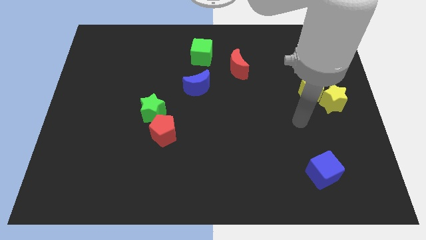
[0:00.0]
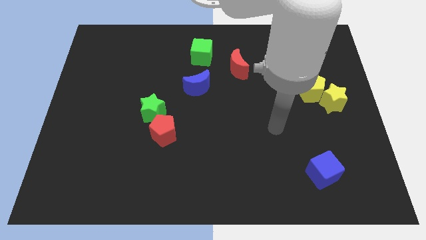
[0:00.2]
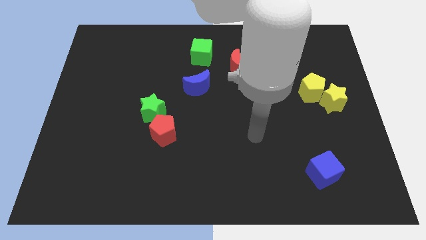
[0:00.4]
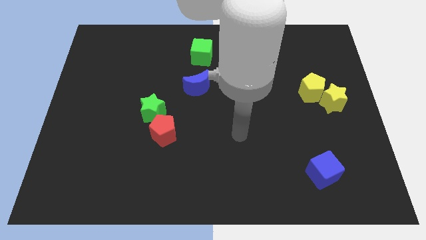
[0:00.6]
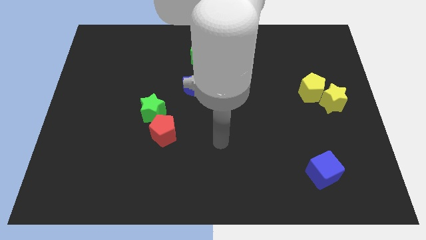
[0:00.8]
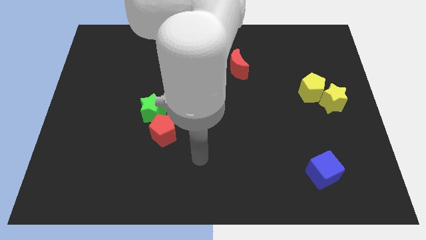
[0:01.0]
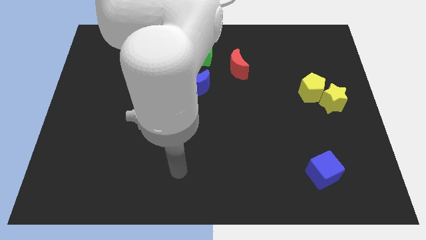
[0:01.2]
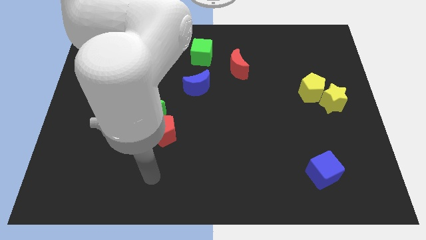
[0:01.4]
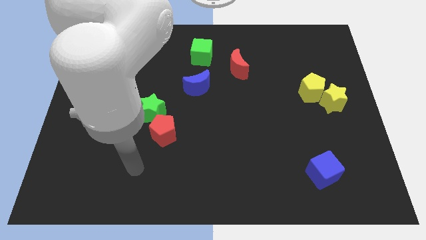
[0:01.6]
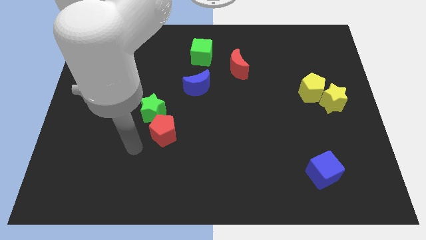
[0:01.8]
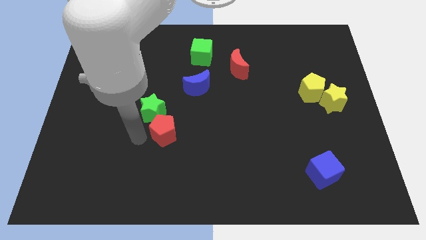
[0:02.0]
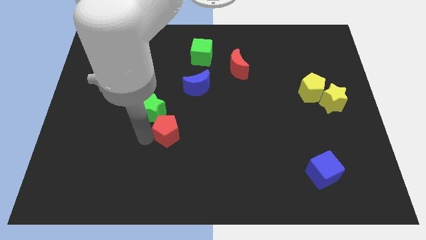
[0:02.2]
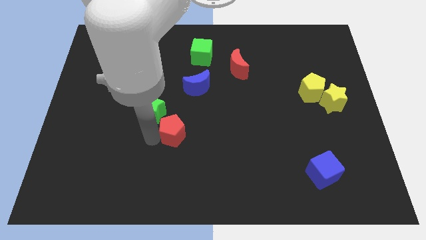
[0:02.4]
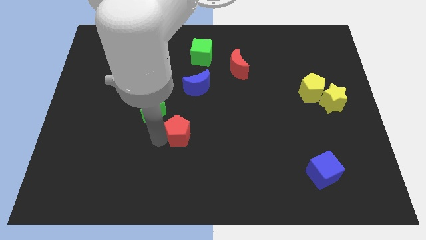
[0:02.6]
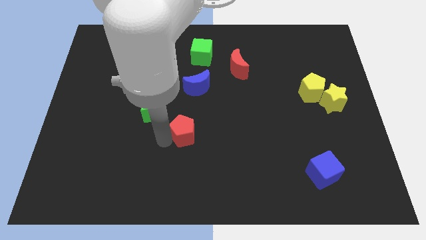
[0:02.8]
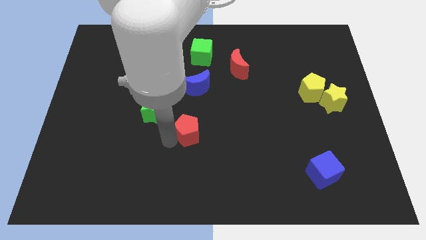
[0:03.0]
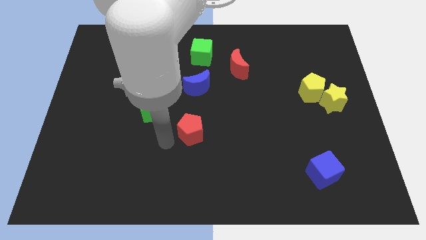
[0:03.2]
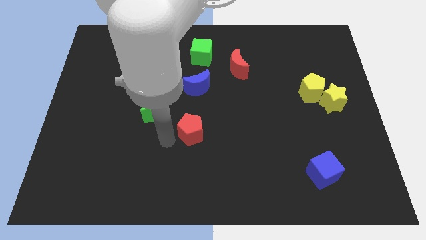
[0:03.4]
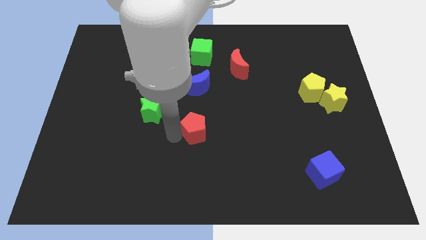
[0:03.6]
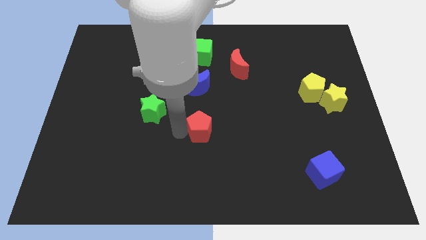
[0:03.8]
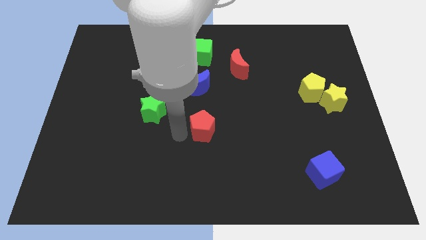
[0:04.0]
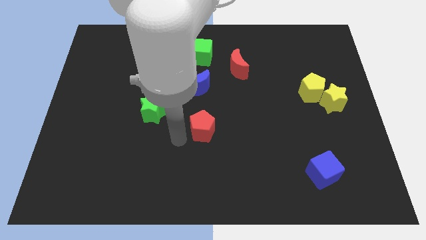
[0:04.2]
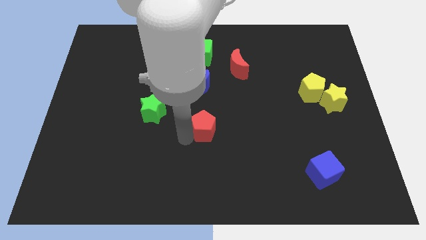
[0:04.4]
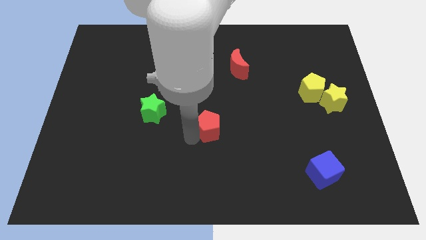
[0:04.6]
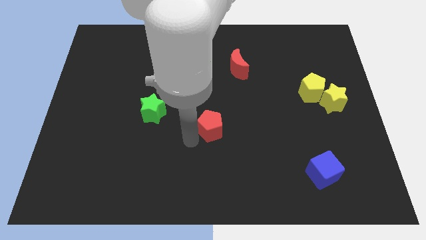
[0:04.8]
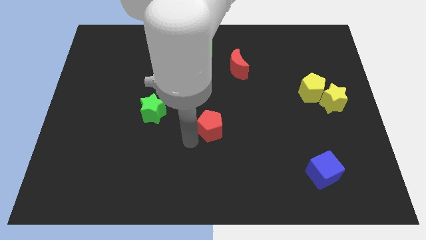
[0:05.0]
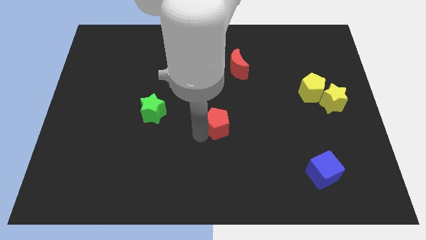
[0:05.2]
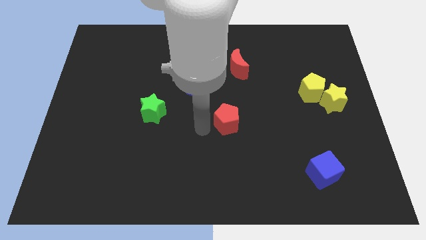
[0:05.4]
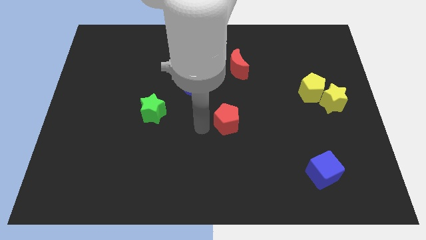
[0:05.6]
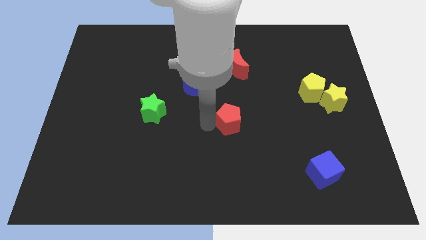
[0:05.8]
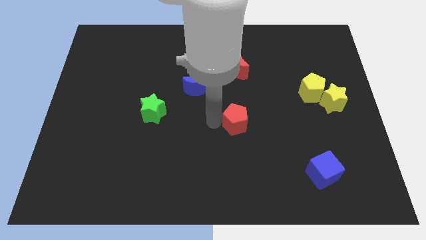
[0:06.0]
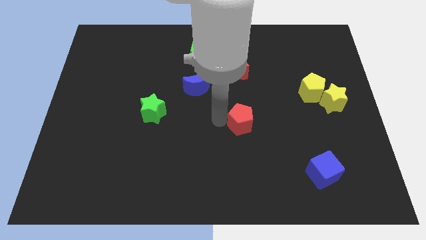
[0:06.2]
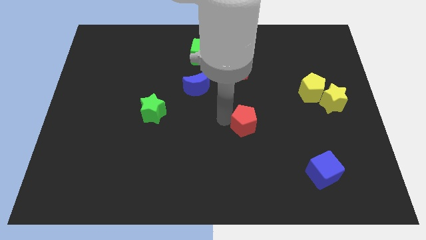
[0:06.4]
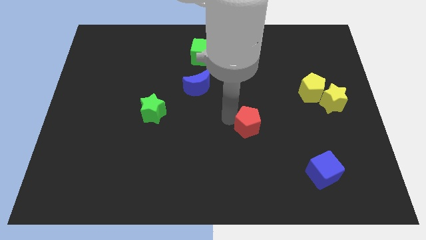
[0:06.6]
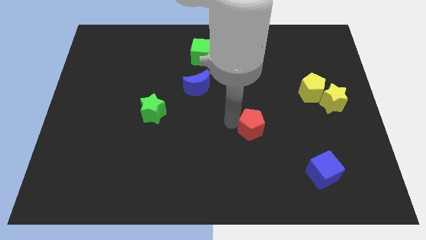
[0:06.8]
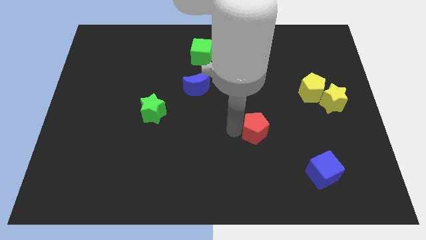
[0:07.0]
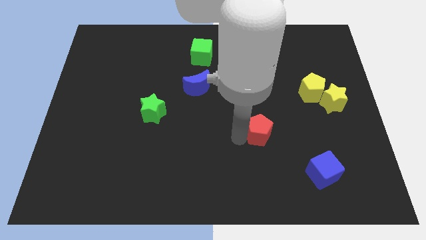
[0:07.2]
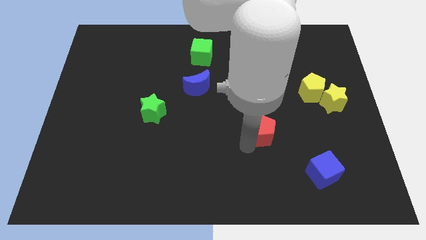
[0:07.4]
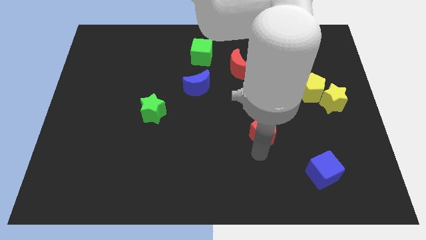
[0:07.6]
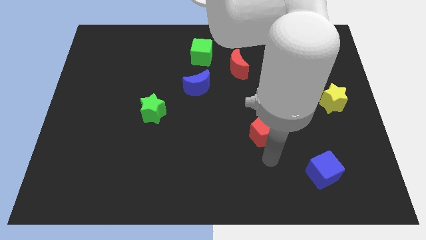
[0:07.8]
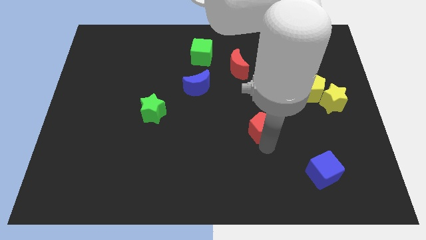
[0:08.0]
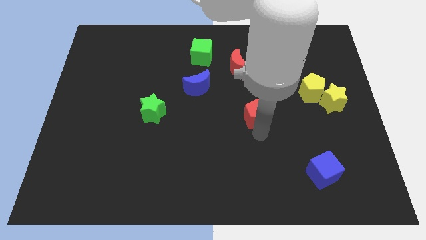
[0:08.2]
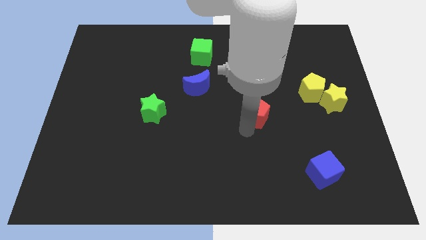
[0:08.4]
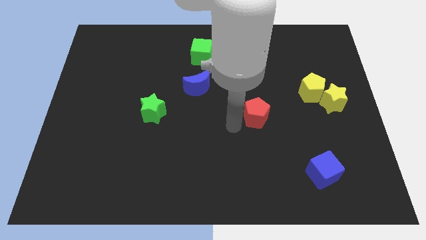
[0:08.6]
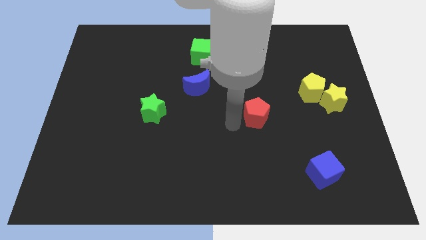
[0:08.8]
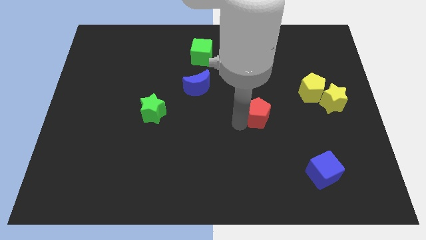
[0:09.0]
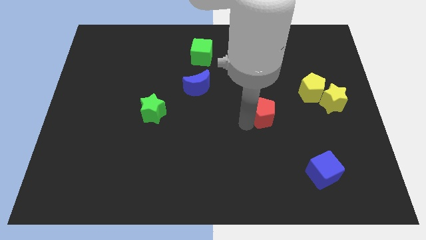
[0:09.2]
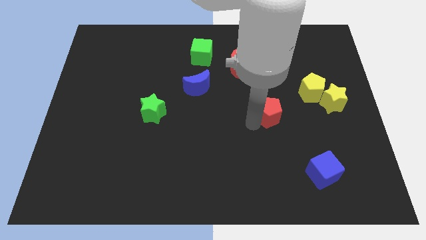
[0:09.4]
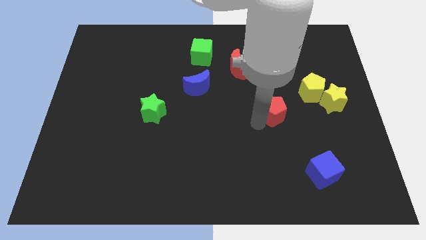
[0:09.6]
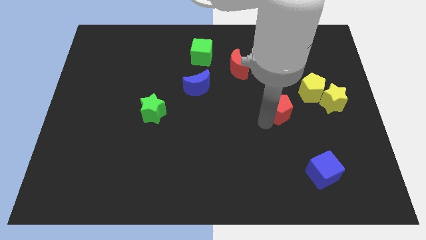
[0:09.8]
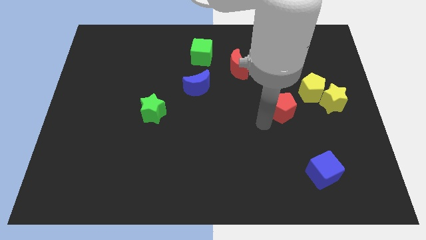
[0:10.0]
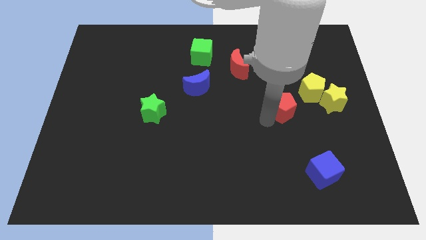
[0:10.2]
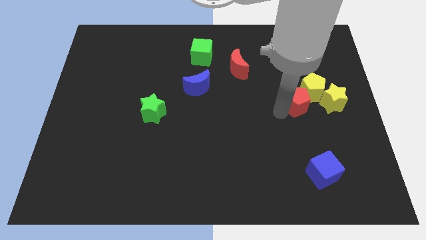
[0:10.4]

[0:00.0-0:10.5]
move the red pentagon towards the yellow pentagon

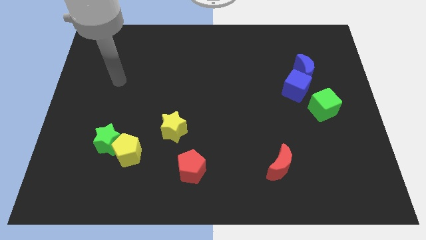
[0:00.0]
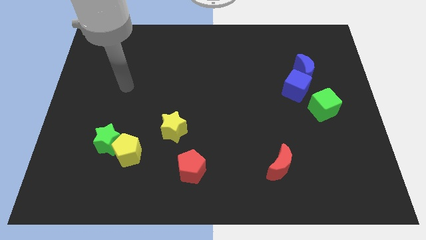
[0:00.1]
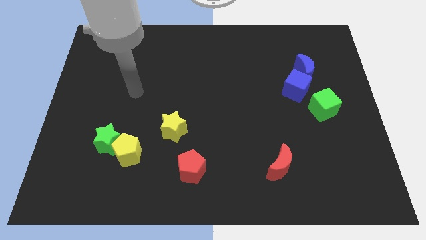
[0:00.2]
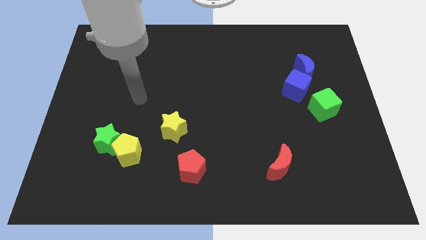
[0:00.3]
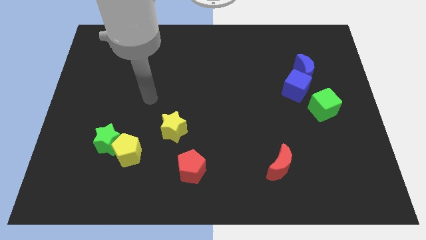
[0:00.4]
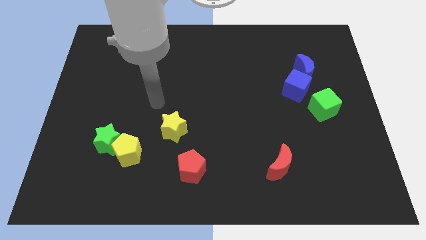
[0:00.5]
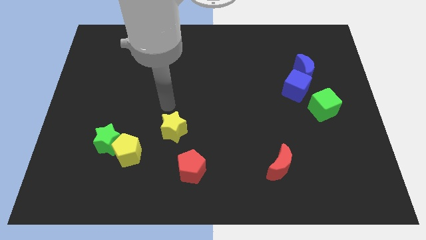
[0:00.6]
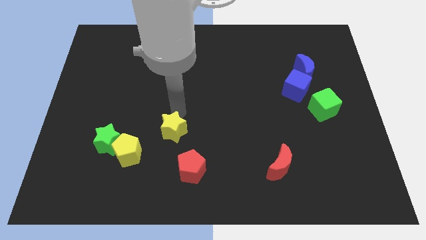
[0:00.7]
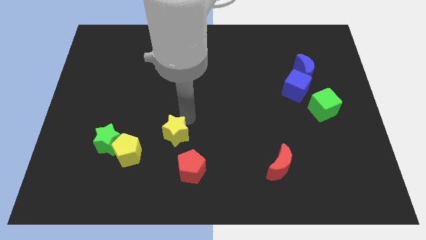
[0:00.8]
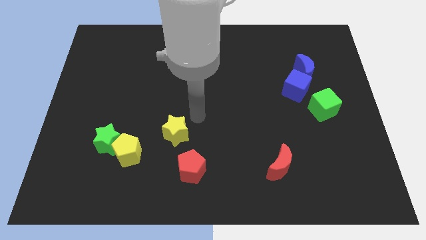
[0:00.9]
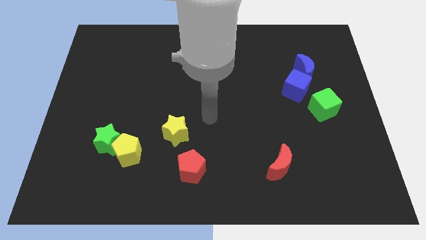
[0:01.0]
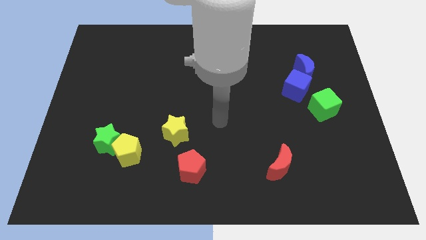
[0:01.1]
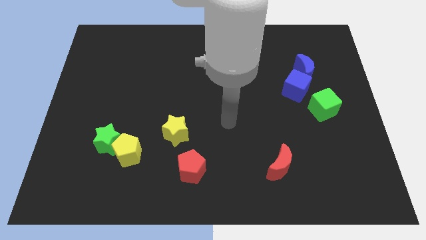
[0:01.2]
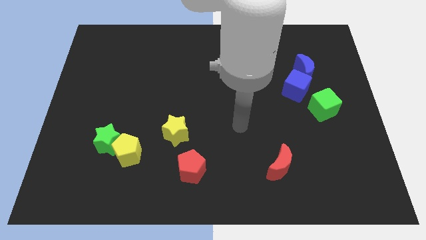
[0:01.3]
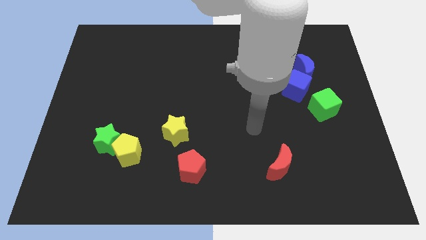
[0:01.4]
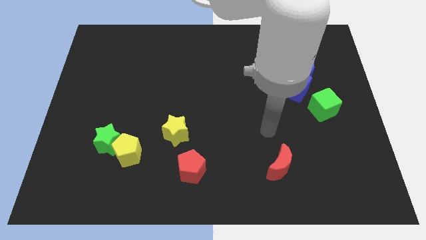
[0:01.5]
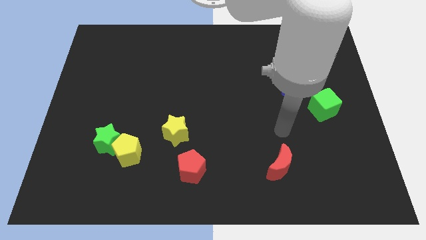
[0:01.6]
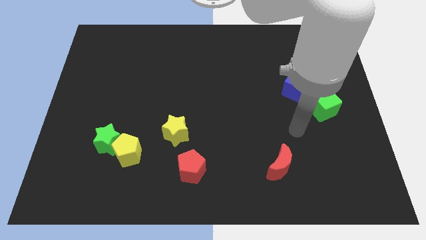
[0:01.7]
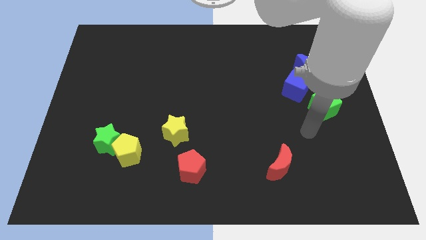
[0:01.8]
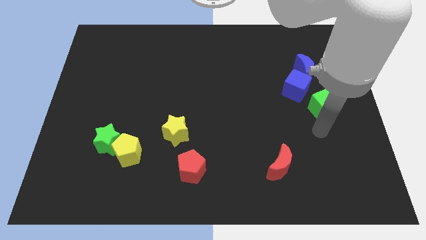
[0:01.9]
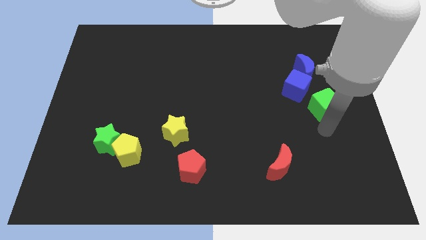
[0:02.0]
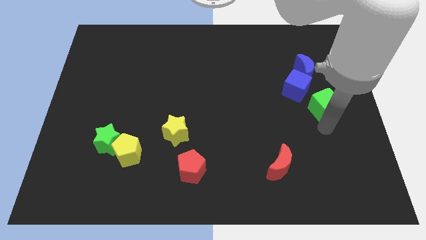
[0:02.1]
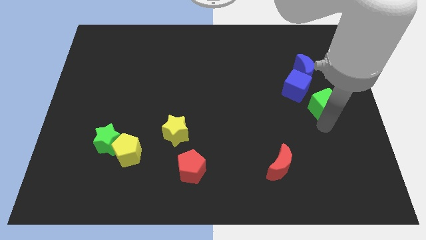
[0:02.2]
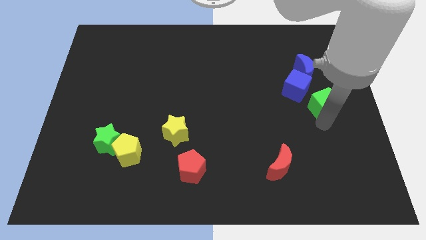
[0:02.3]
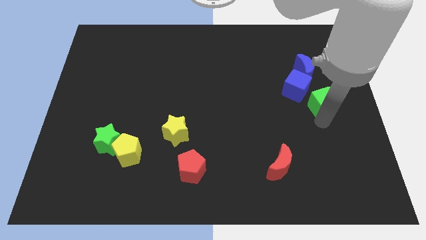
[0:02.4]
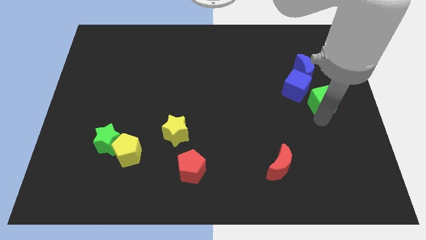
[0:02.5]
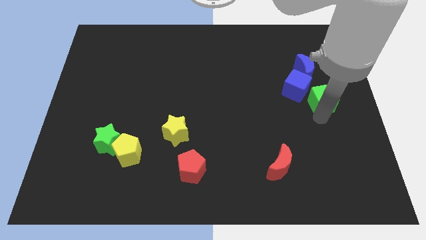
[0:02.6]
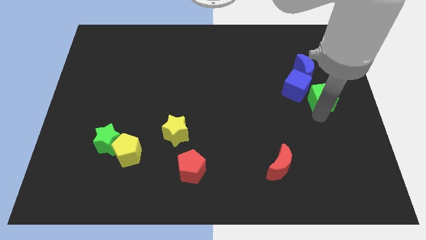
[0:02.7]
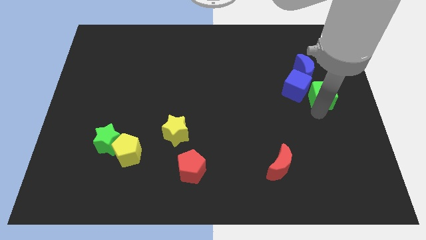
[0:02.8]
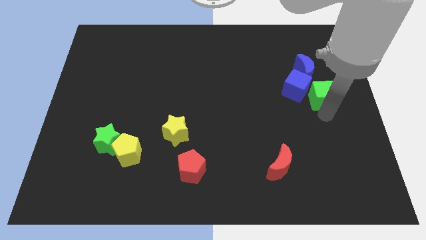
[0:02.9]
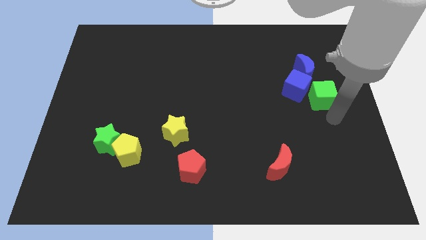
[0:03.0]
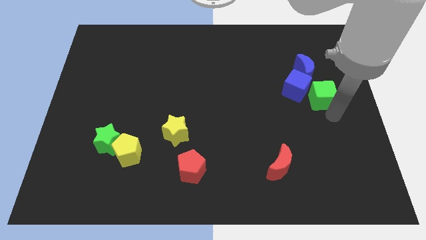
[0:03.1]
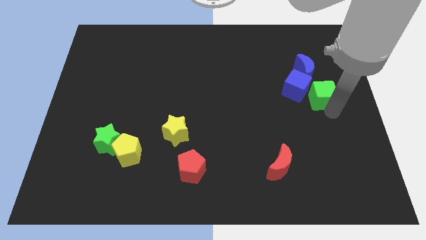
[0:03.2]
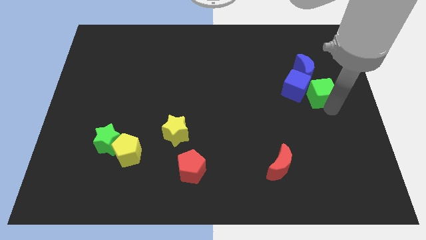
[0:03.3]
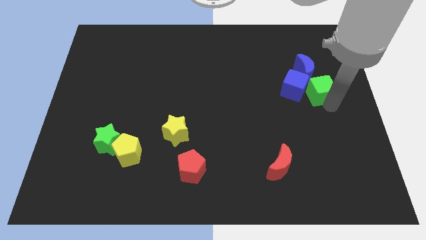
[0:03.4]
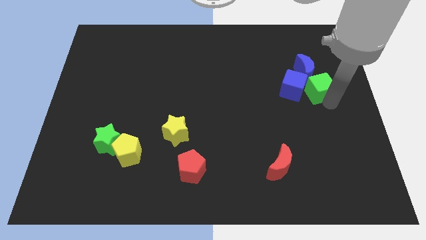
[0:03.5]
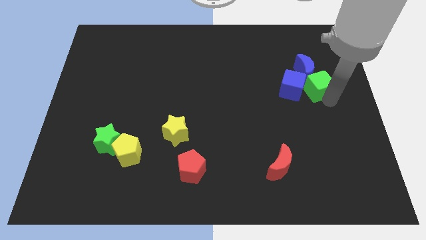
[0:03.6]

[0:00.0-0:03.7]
put the green cube towards the blue moon
